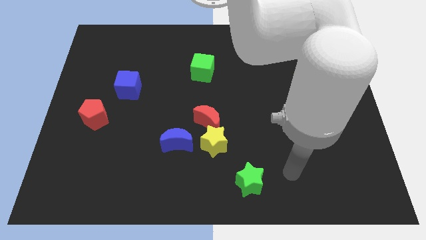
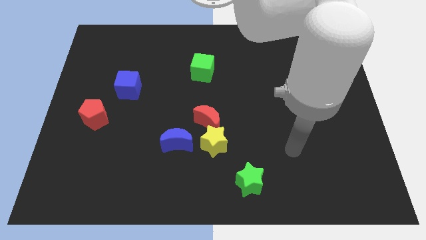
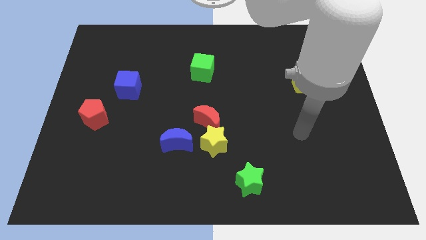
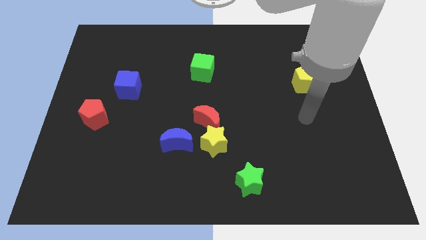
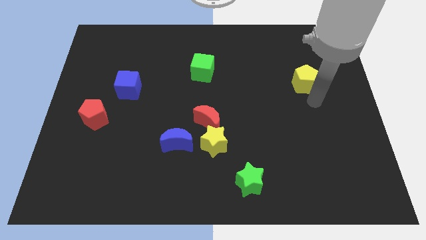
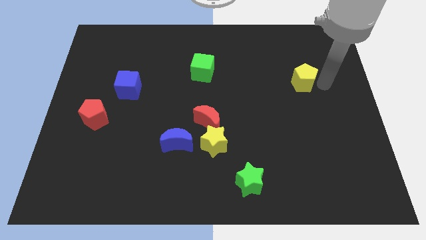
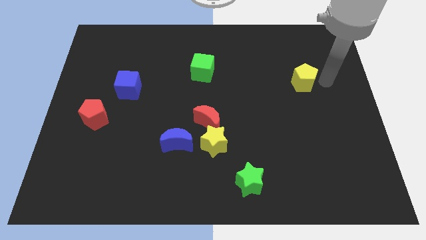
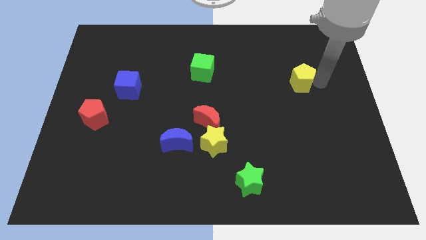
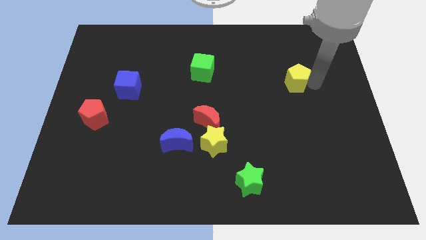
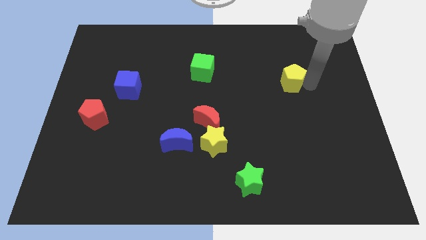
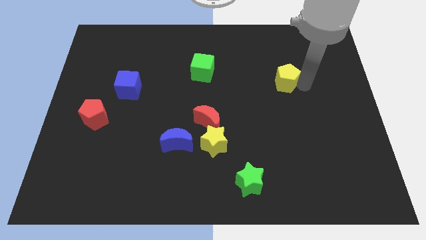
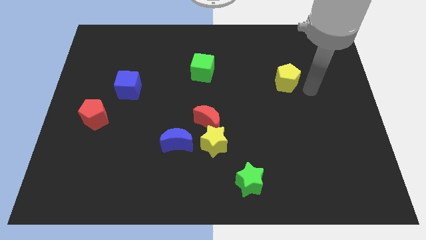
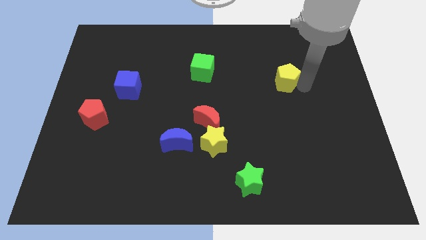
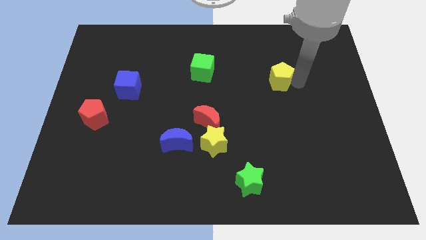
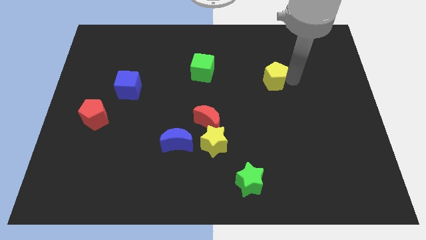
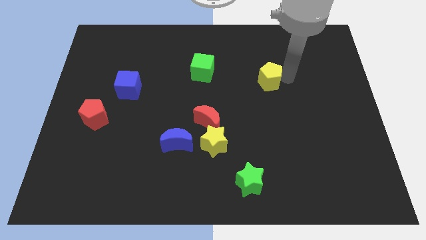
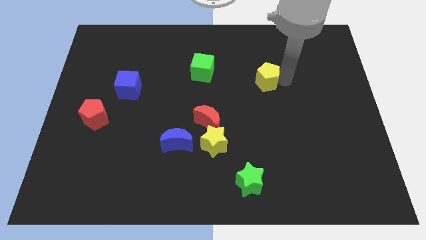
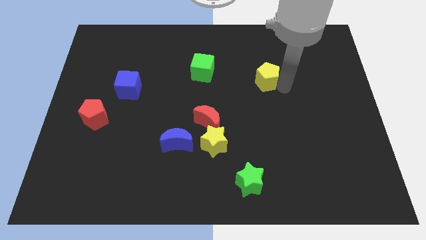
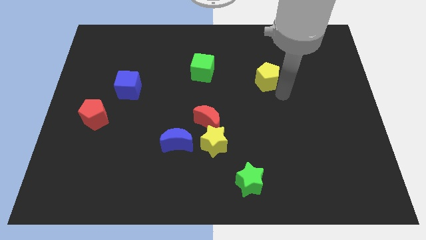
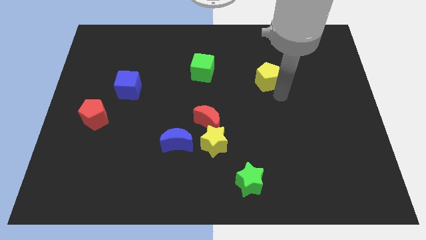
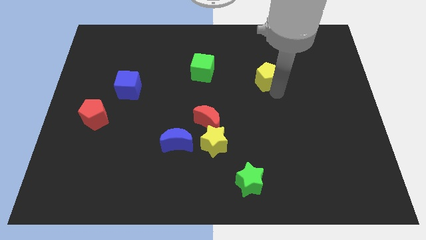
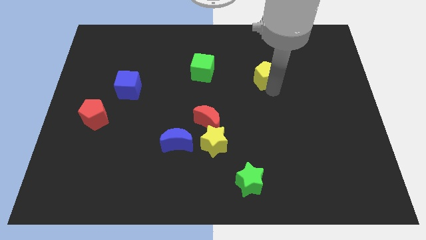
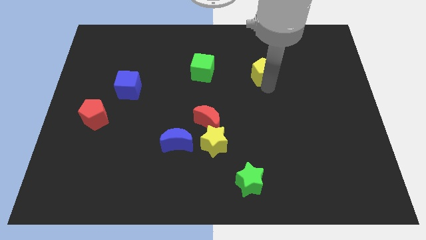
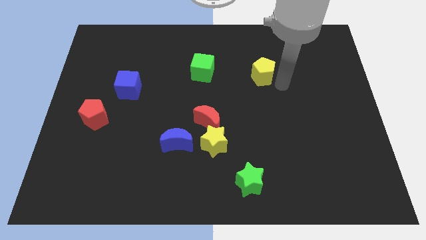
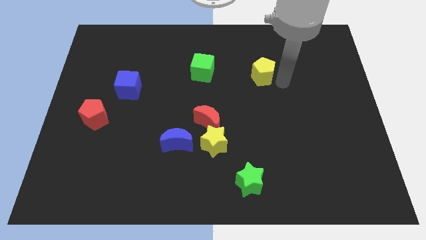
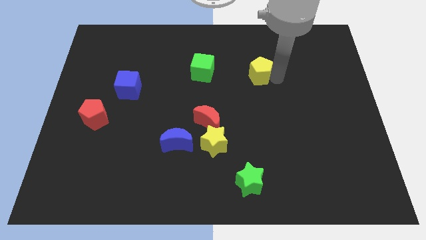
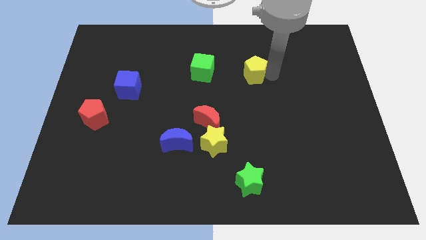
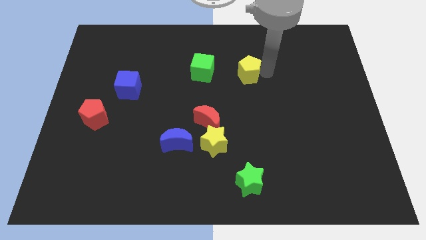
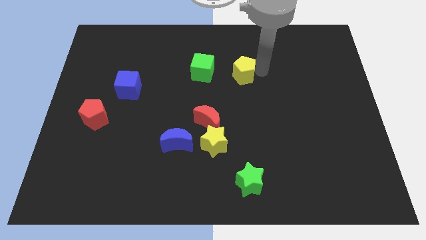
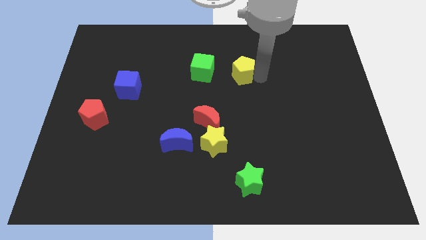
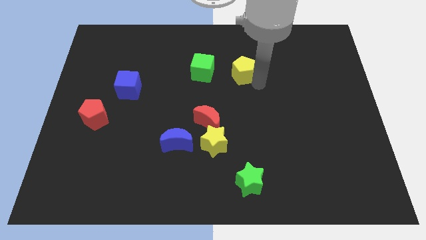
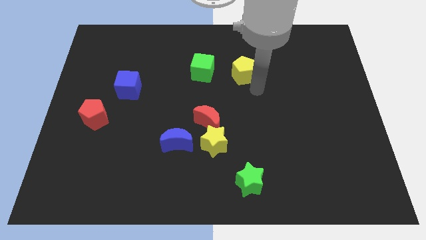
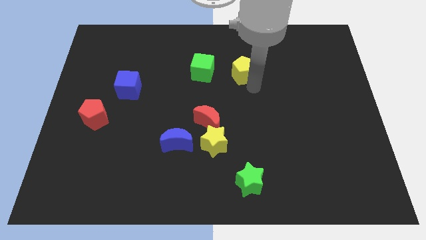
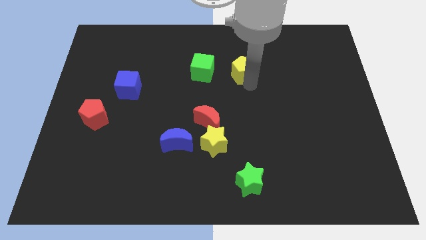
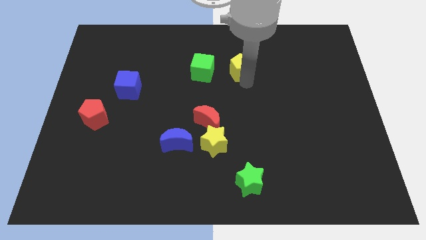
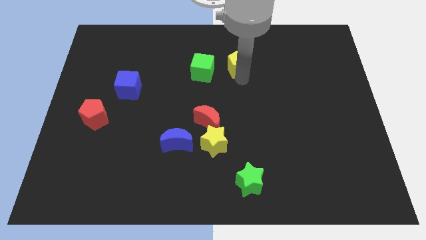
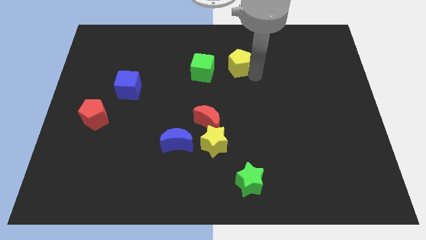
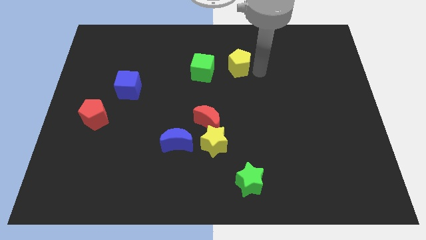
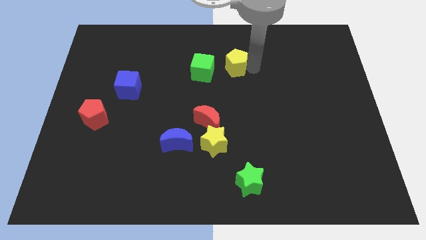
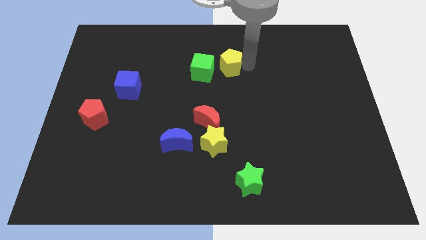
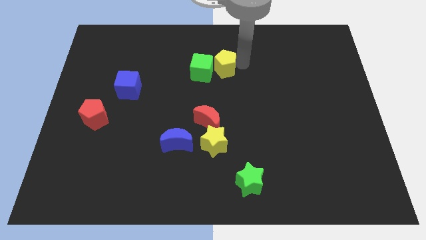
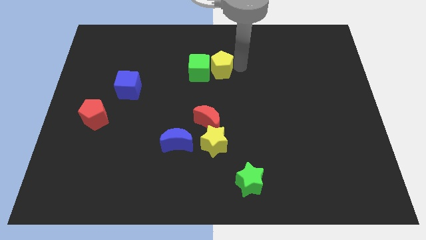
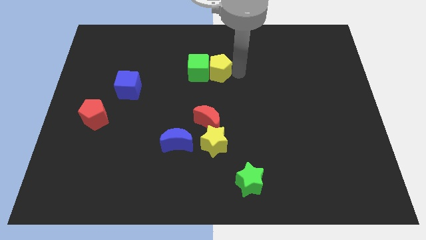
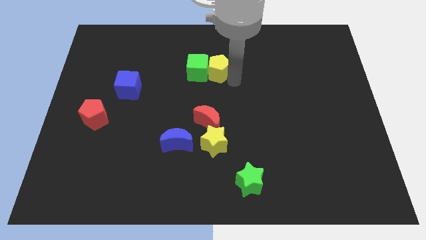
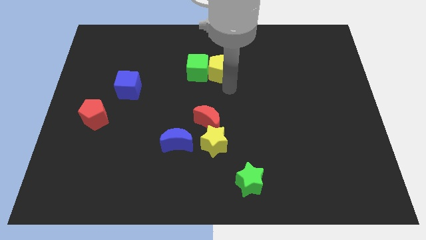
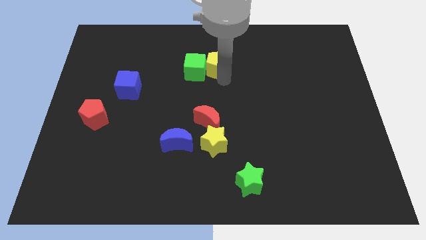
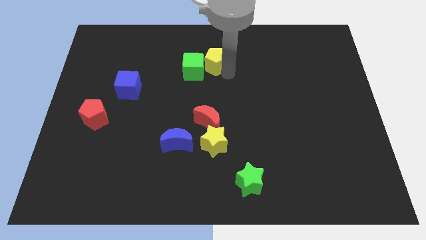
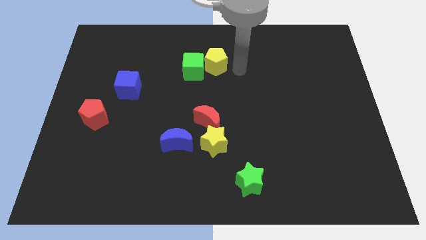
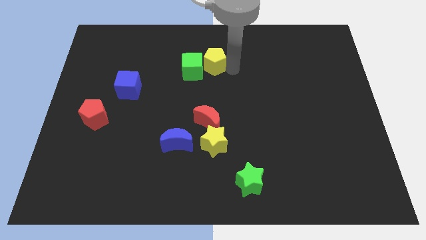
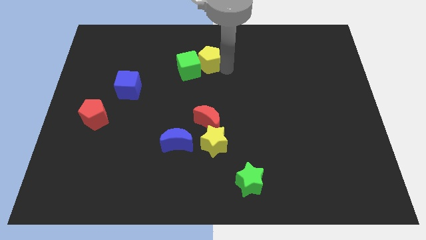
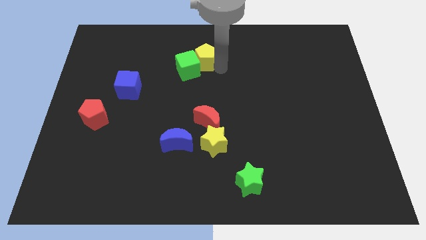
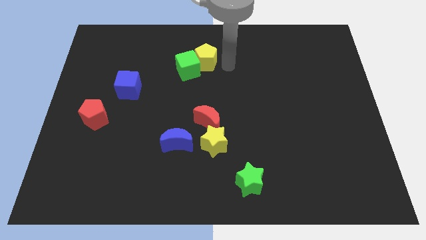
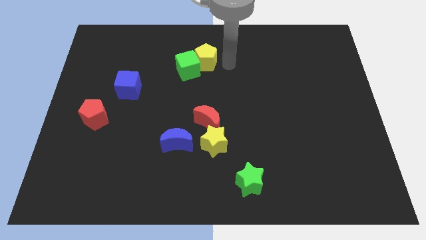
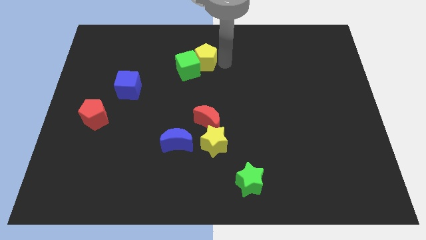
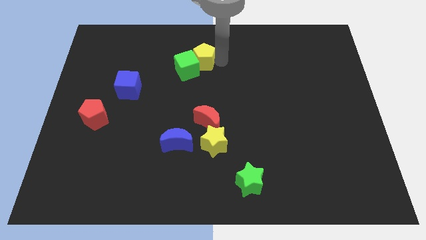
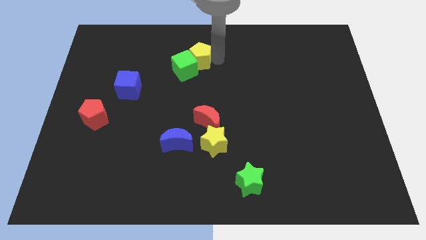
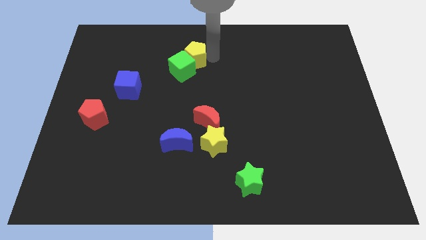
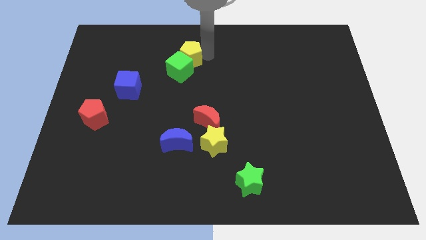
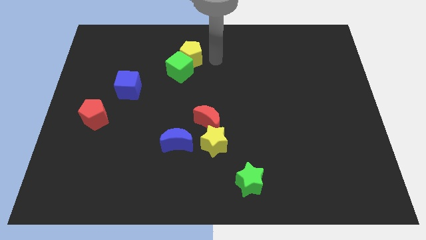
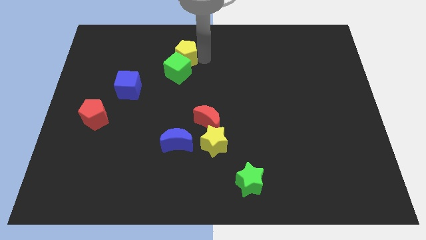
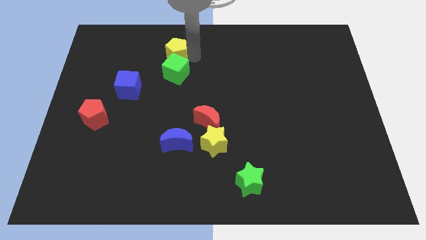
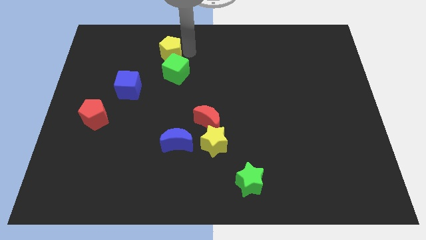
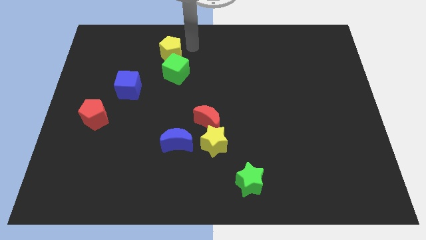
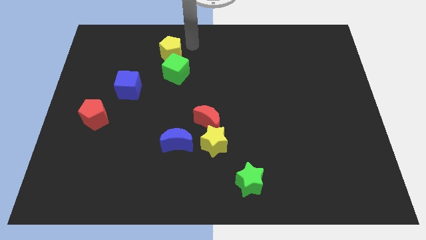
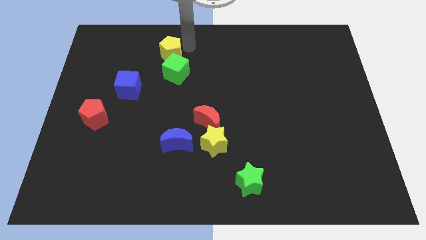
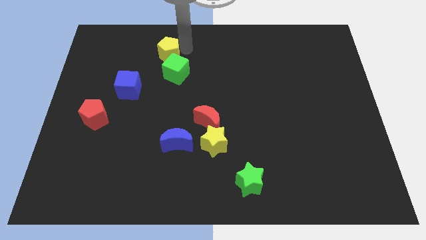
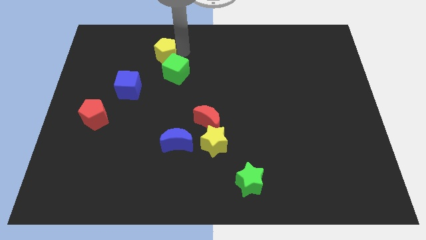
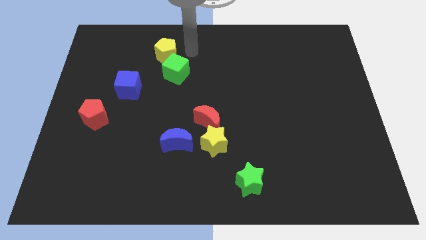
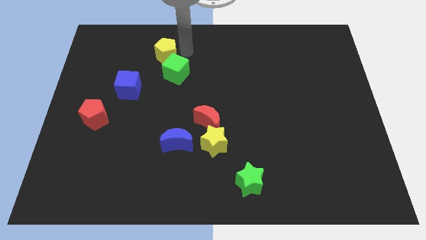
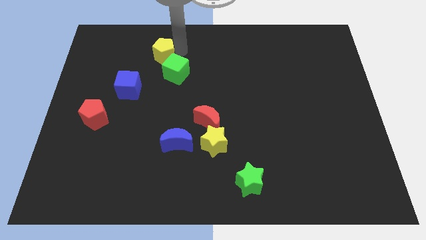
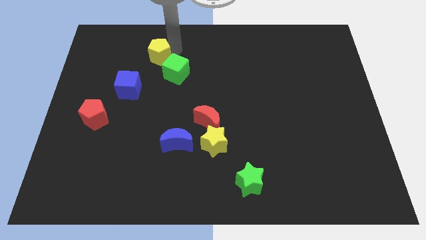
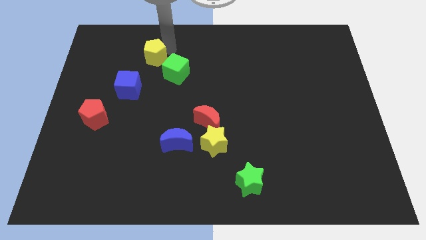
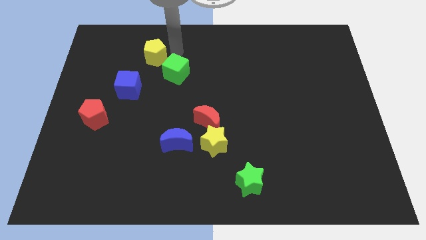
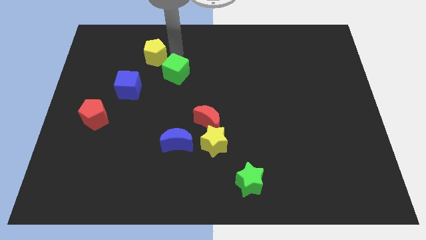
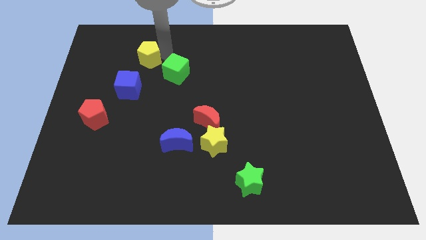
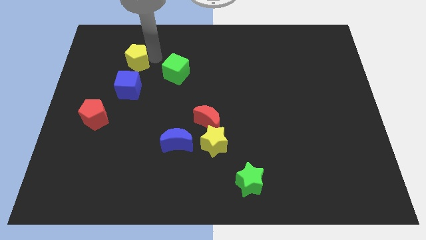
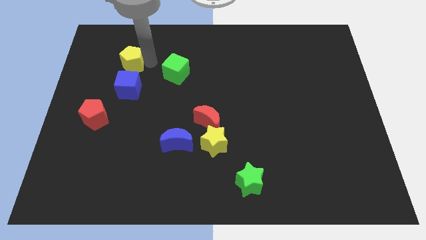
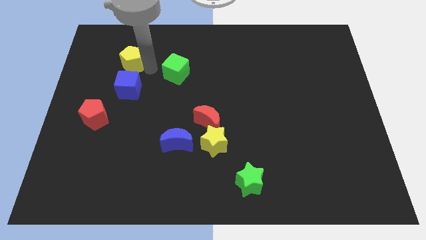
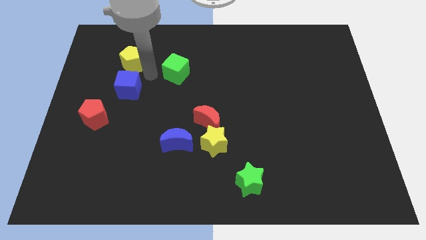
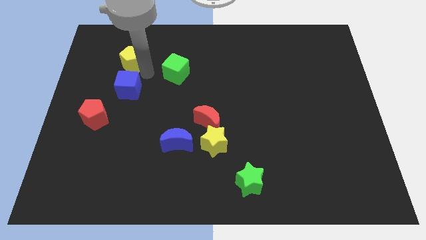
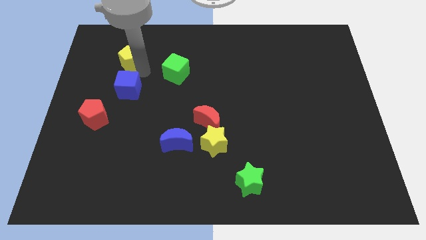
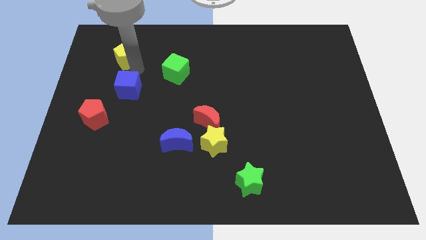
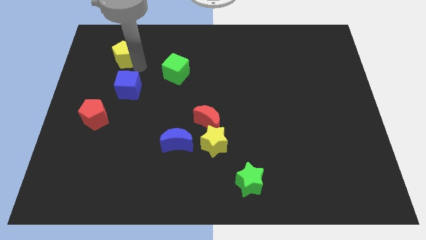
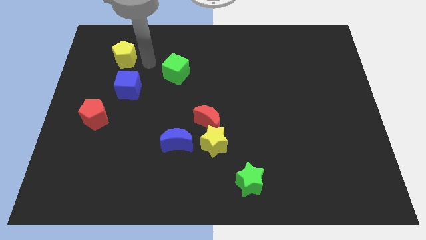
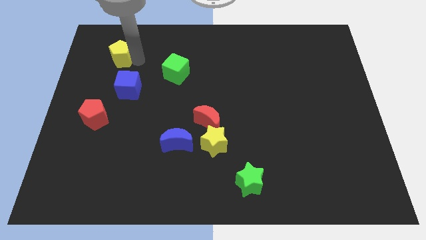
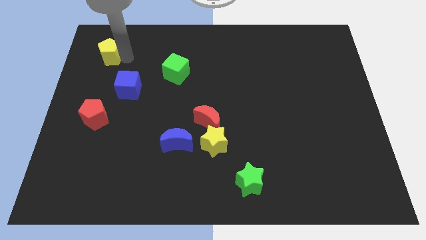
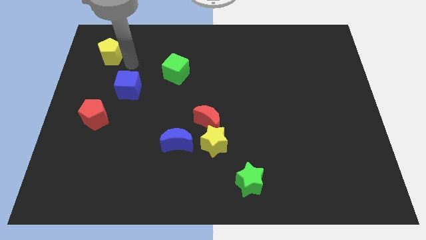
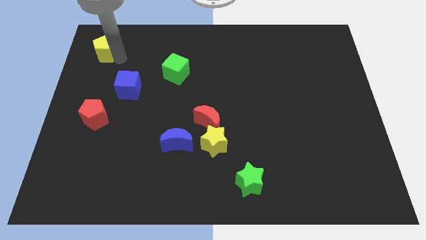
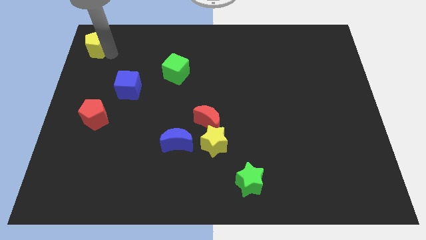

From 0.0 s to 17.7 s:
slide the yellow pentagon to the top left corner

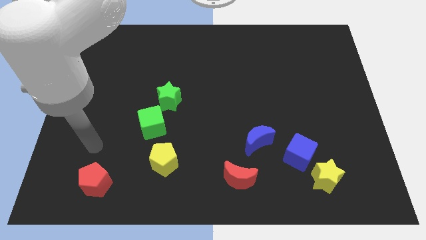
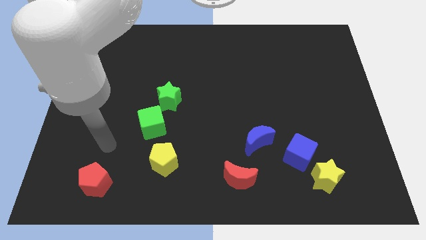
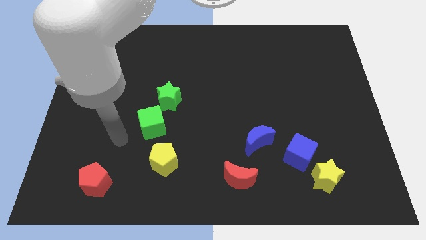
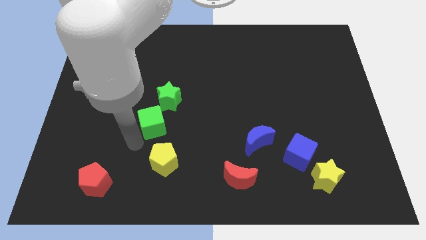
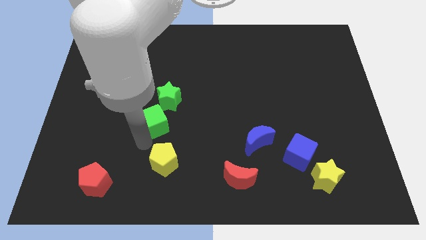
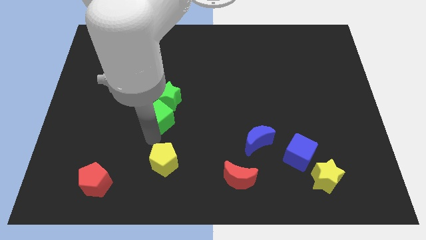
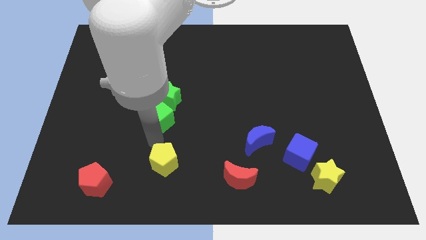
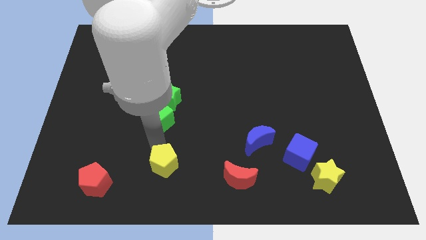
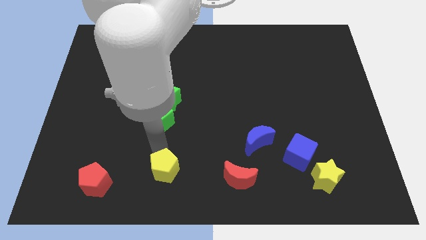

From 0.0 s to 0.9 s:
put the yellow pentagon to the bottom side
